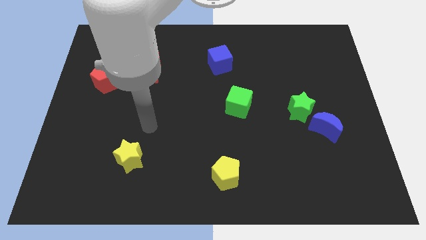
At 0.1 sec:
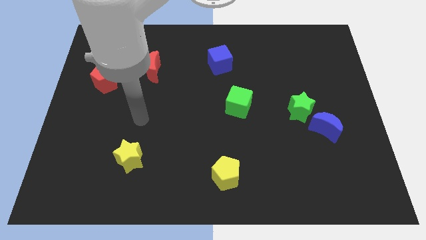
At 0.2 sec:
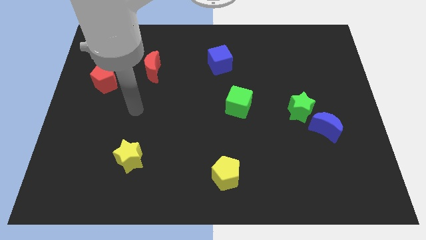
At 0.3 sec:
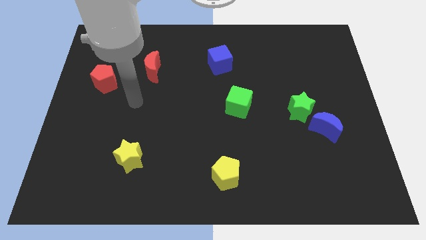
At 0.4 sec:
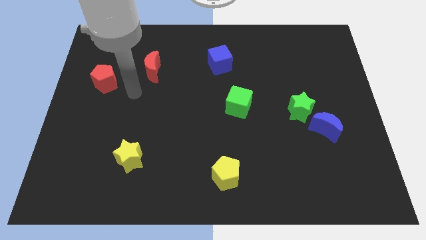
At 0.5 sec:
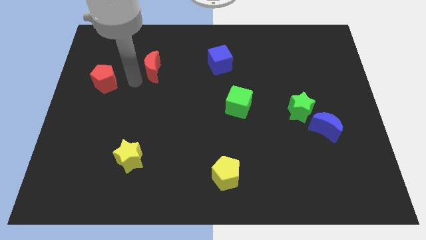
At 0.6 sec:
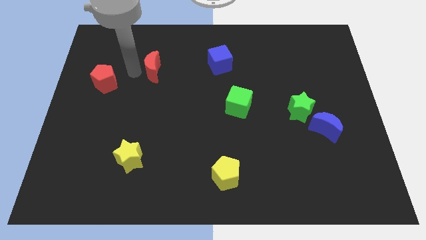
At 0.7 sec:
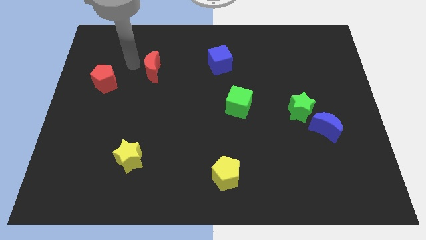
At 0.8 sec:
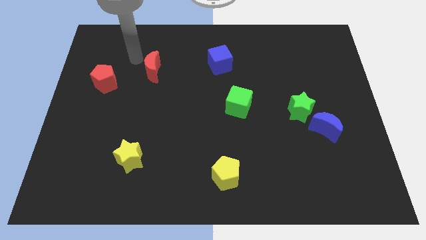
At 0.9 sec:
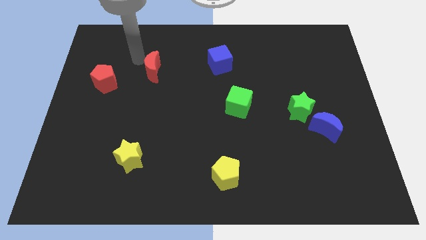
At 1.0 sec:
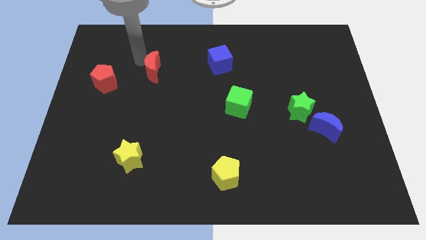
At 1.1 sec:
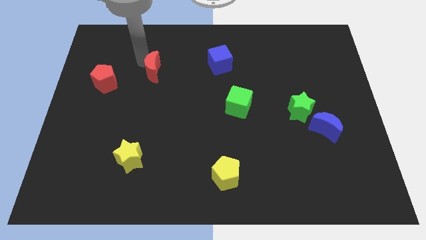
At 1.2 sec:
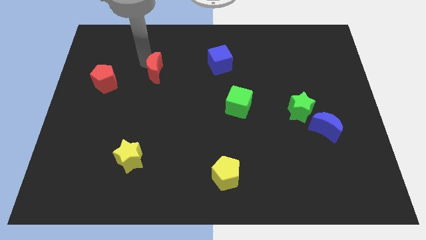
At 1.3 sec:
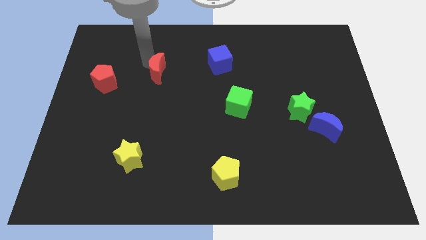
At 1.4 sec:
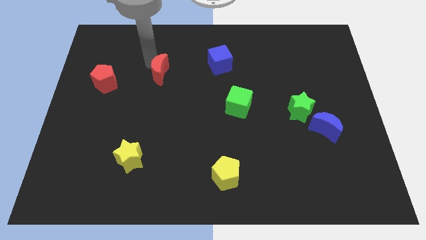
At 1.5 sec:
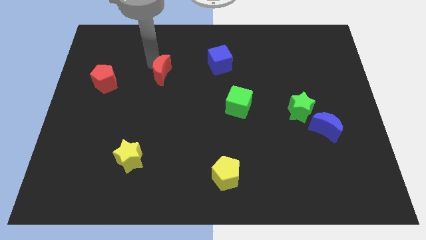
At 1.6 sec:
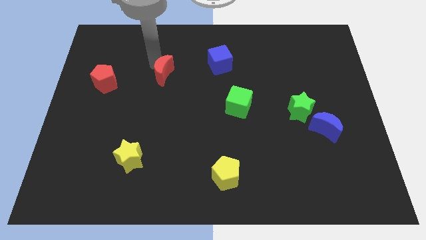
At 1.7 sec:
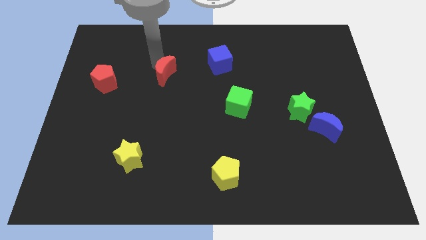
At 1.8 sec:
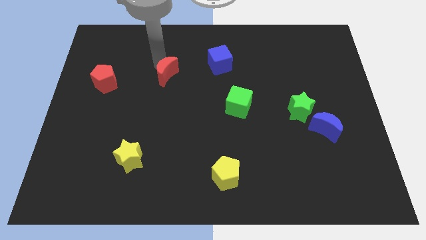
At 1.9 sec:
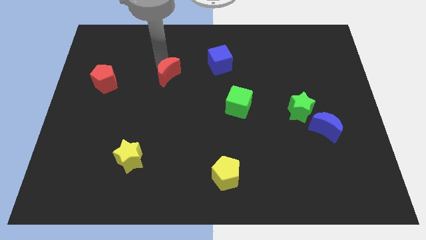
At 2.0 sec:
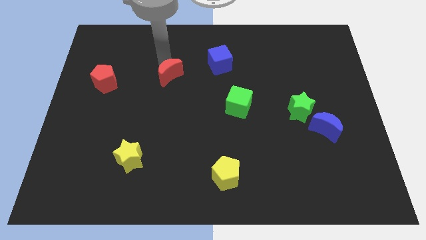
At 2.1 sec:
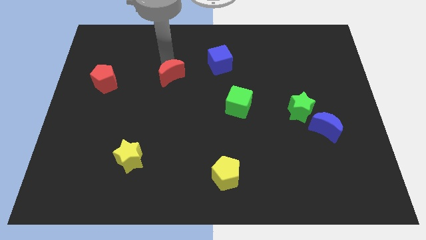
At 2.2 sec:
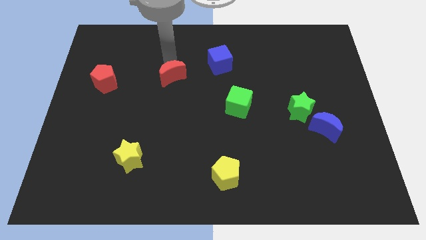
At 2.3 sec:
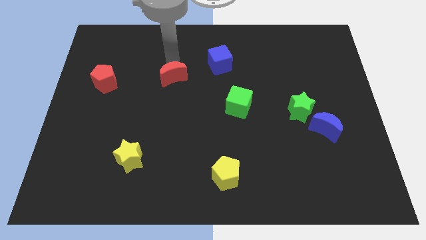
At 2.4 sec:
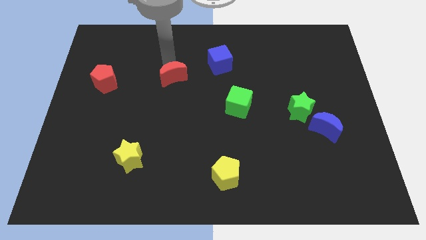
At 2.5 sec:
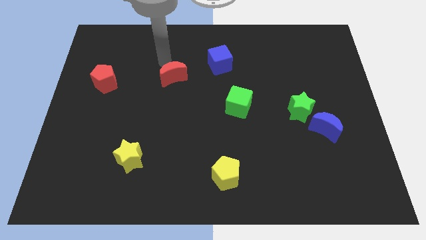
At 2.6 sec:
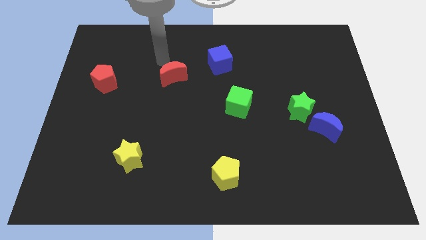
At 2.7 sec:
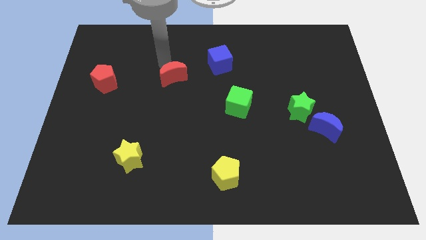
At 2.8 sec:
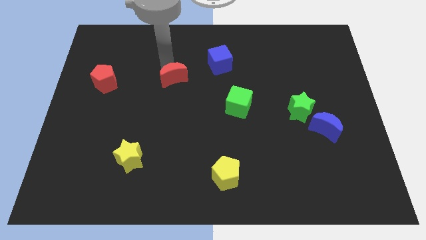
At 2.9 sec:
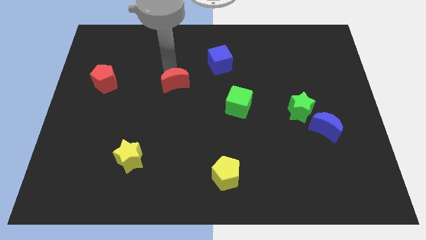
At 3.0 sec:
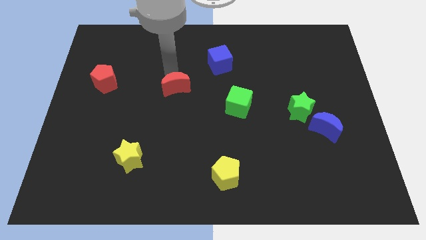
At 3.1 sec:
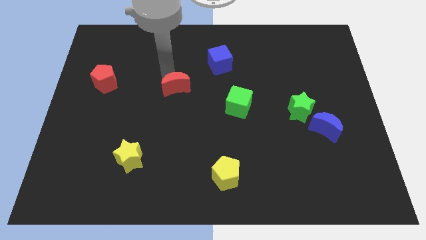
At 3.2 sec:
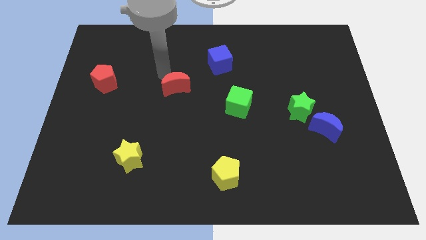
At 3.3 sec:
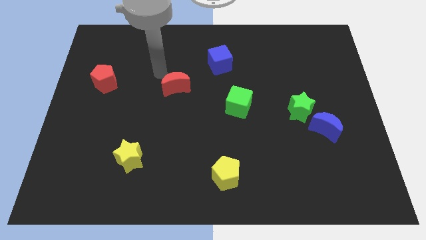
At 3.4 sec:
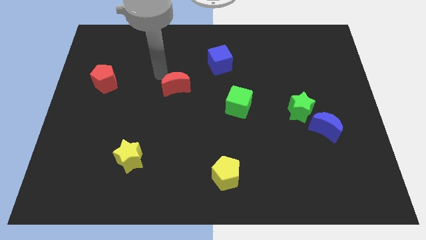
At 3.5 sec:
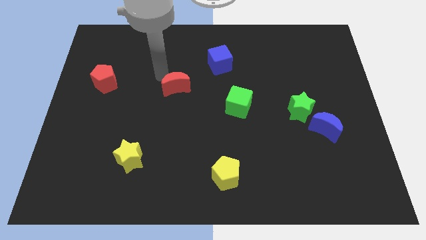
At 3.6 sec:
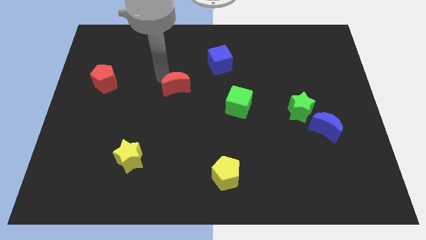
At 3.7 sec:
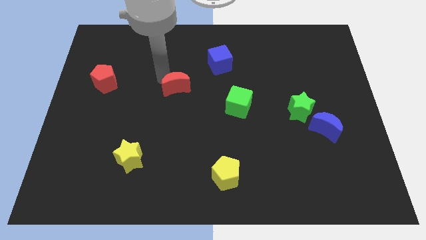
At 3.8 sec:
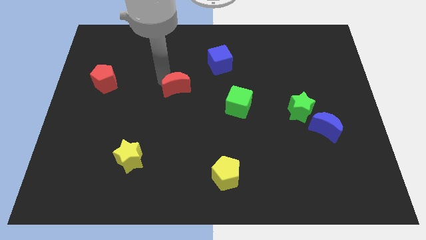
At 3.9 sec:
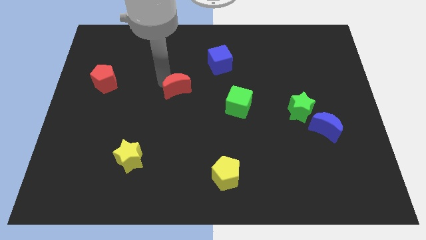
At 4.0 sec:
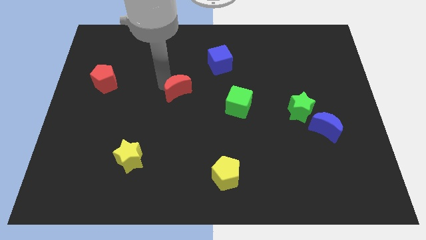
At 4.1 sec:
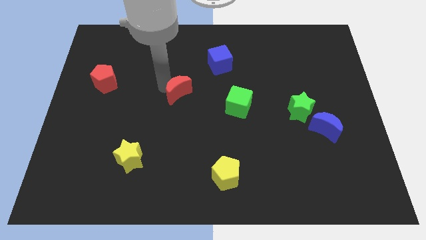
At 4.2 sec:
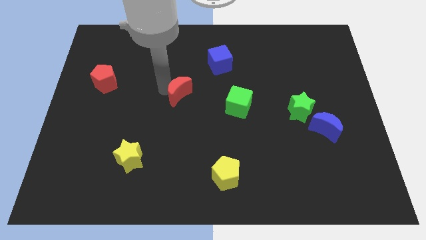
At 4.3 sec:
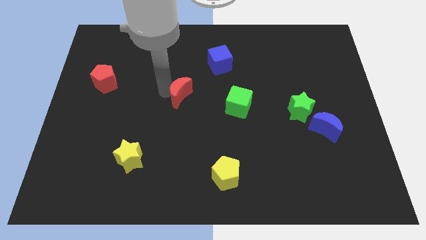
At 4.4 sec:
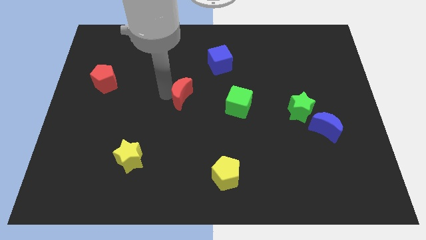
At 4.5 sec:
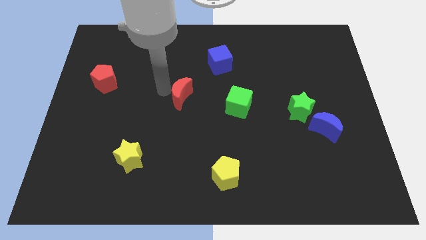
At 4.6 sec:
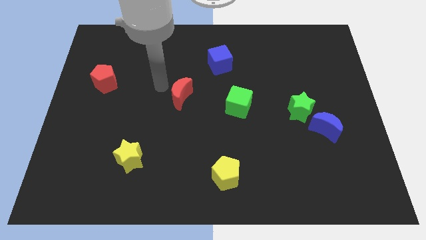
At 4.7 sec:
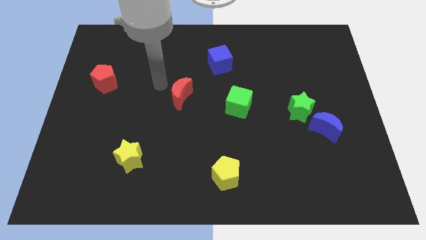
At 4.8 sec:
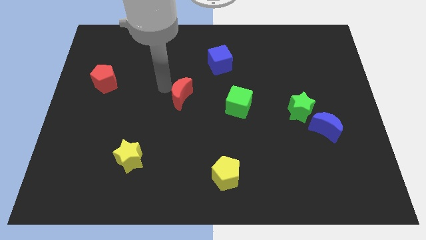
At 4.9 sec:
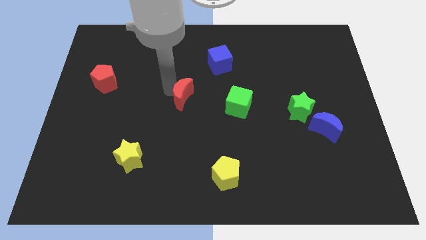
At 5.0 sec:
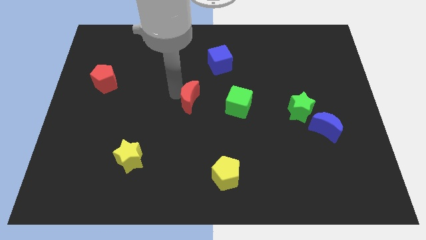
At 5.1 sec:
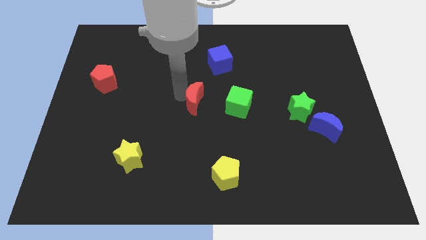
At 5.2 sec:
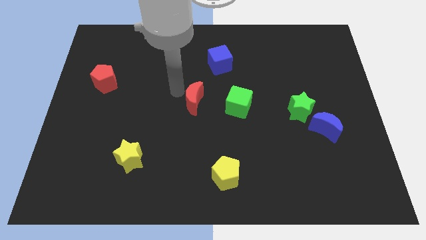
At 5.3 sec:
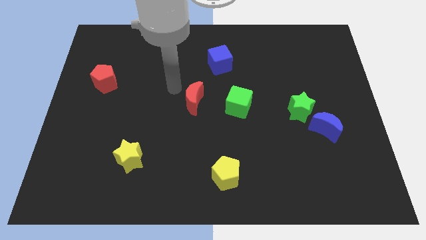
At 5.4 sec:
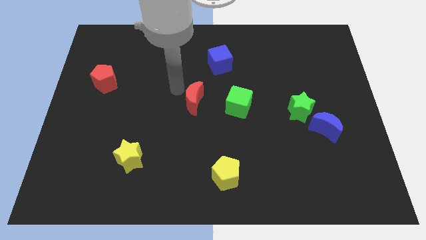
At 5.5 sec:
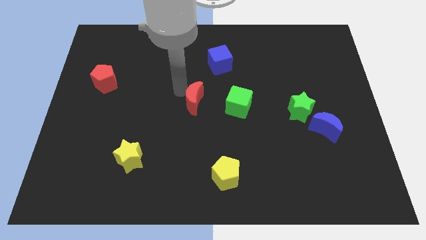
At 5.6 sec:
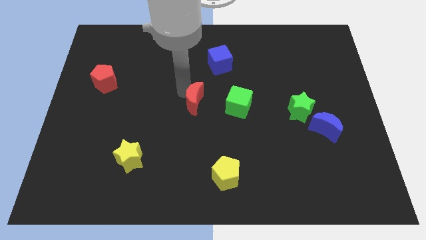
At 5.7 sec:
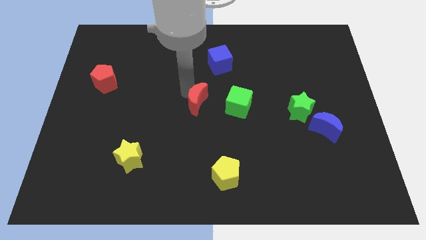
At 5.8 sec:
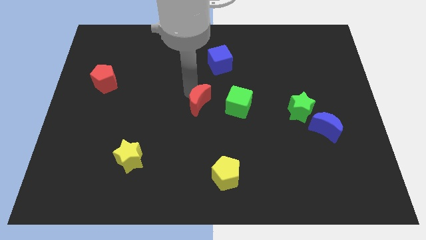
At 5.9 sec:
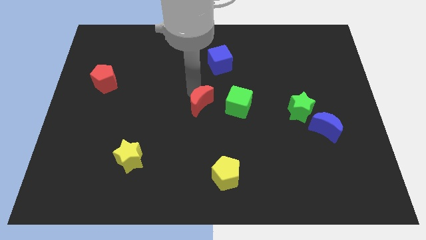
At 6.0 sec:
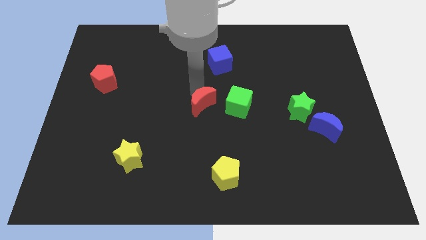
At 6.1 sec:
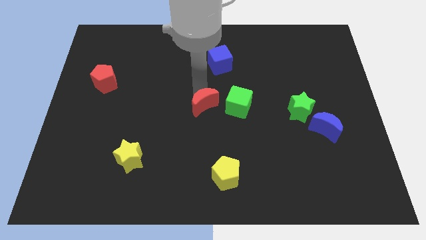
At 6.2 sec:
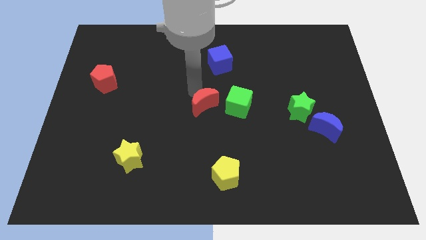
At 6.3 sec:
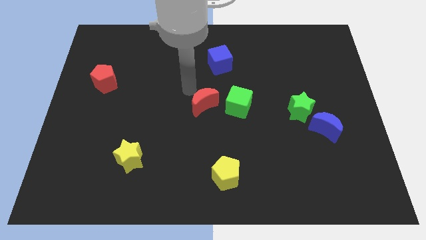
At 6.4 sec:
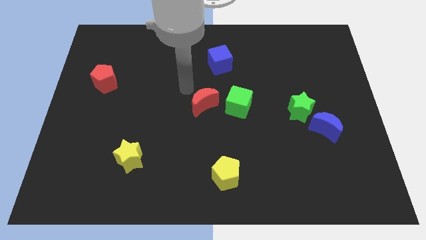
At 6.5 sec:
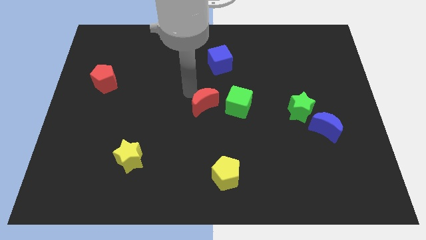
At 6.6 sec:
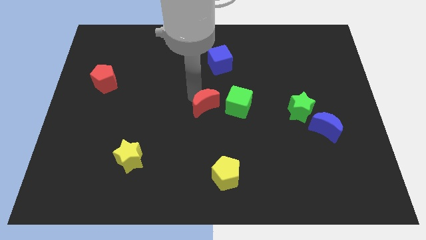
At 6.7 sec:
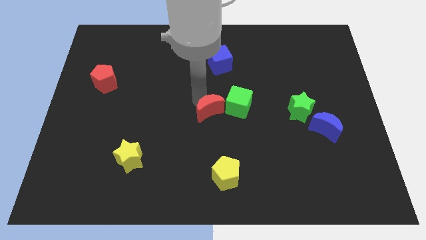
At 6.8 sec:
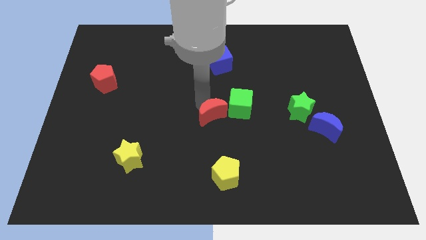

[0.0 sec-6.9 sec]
push the red moon diagonally downwards and to the right

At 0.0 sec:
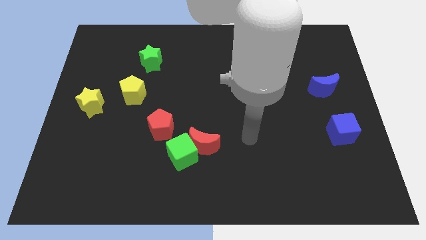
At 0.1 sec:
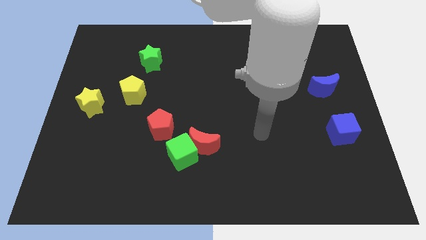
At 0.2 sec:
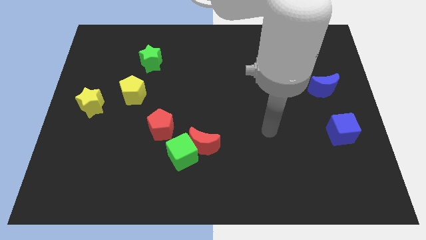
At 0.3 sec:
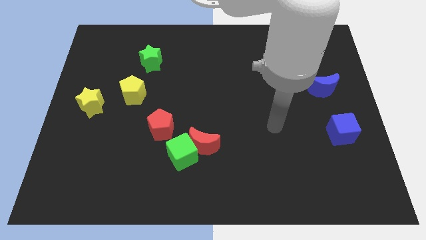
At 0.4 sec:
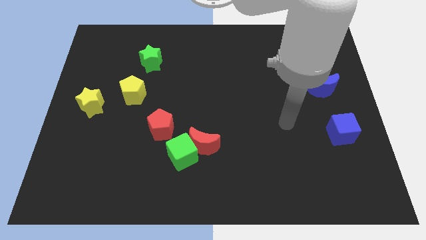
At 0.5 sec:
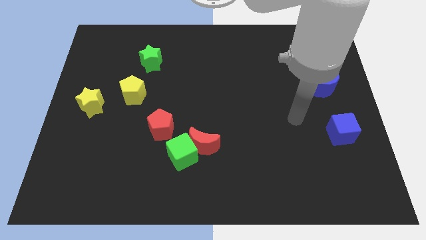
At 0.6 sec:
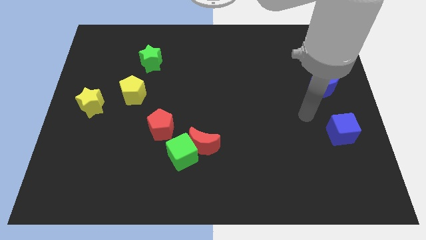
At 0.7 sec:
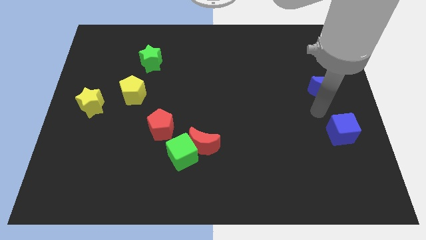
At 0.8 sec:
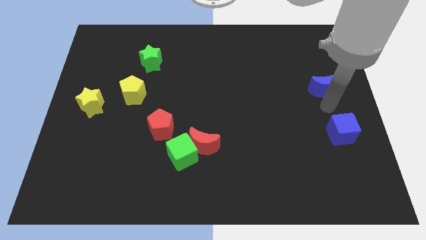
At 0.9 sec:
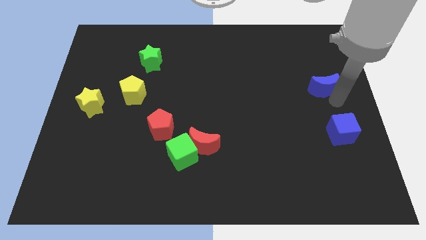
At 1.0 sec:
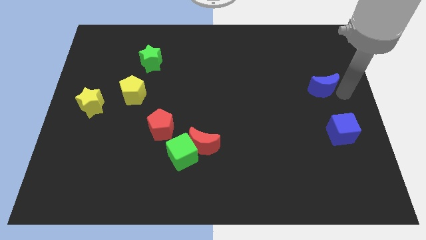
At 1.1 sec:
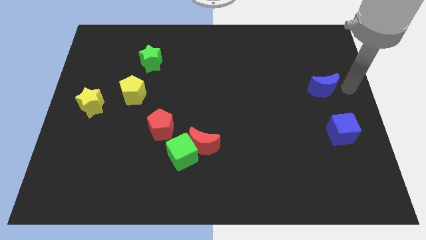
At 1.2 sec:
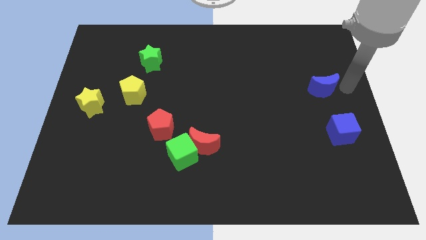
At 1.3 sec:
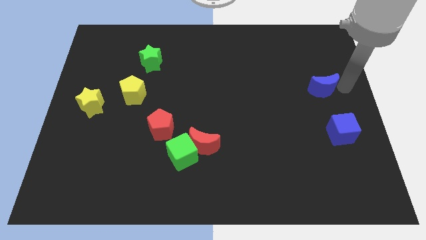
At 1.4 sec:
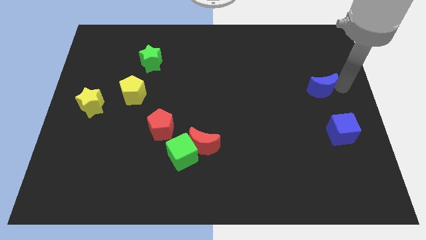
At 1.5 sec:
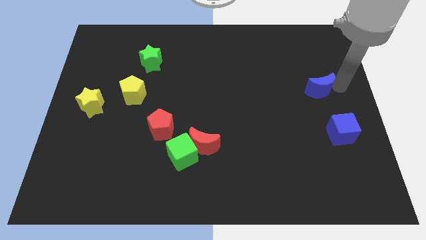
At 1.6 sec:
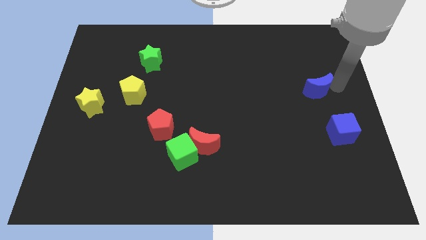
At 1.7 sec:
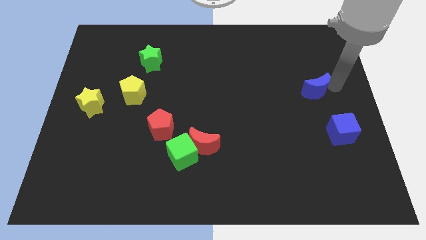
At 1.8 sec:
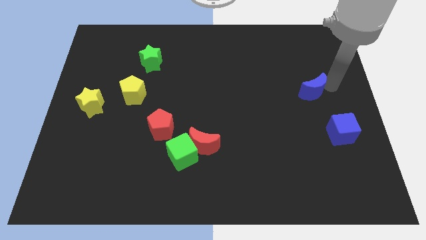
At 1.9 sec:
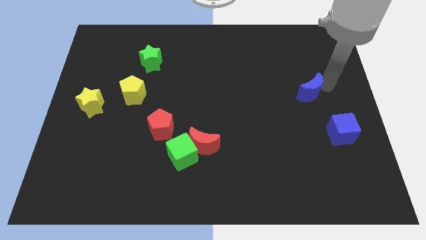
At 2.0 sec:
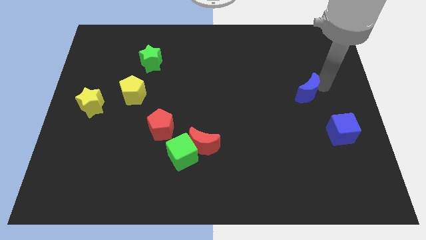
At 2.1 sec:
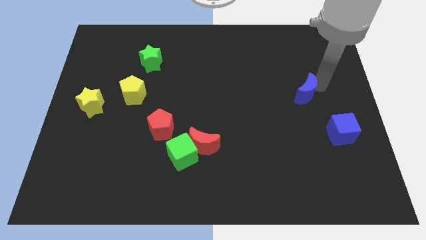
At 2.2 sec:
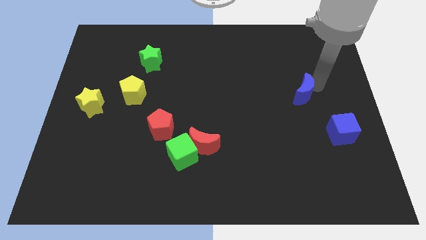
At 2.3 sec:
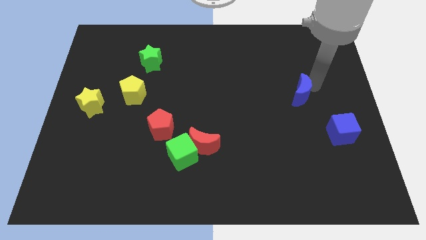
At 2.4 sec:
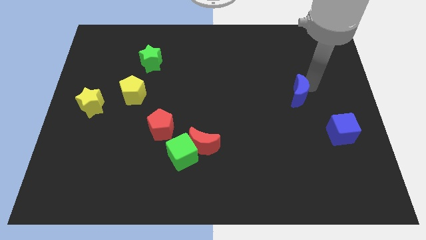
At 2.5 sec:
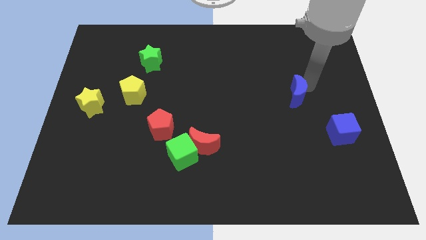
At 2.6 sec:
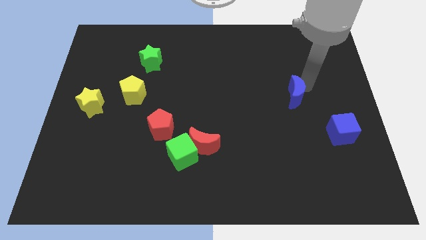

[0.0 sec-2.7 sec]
slide the blue moon a bit to the left
